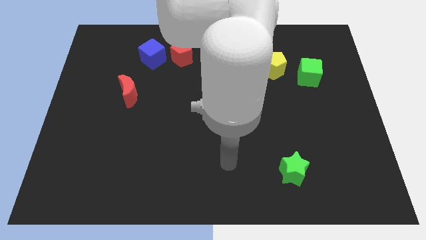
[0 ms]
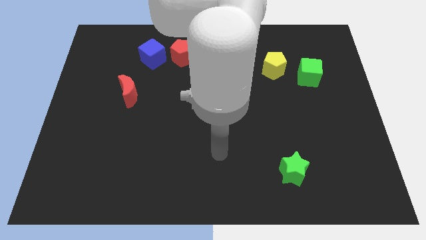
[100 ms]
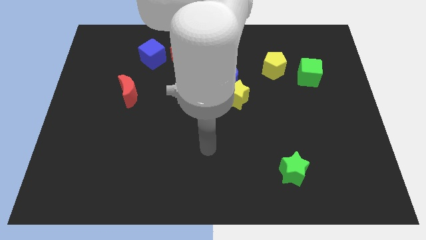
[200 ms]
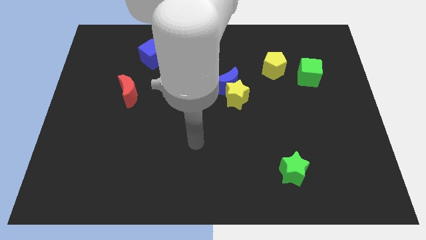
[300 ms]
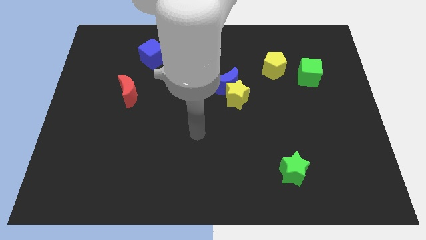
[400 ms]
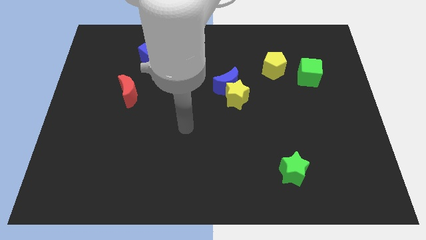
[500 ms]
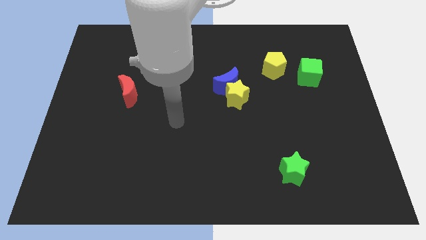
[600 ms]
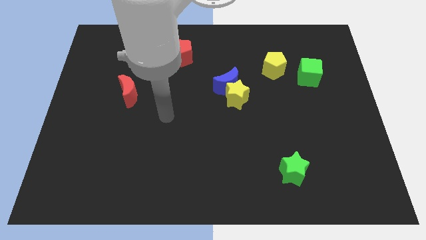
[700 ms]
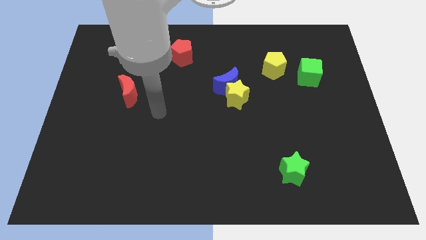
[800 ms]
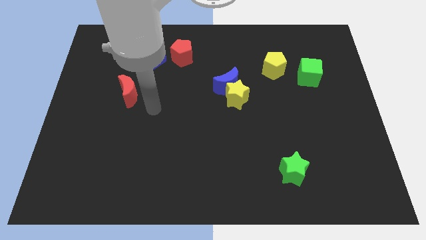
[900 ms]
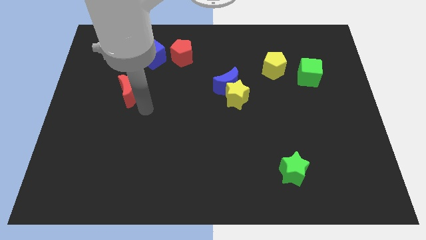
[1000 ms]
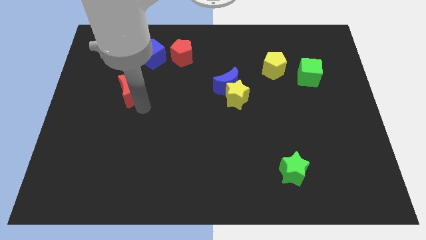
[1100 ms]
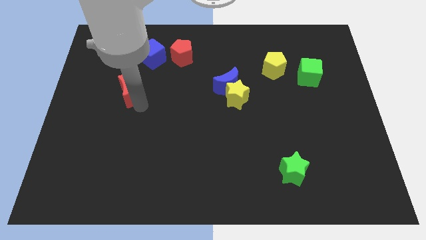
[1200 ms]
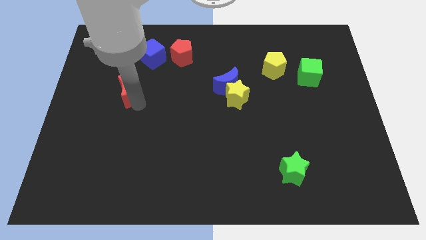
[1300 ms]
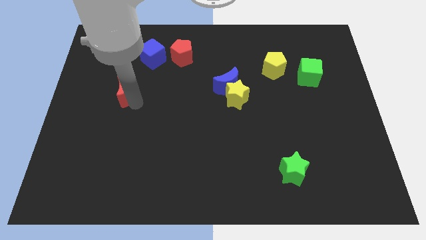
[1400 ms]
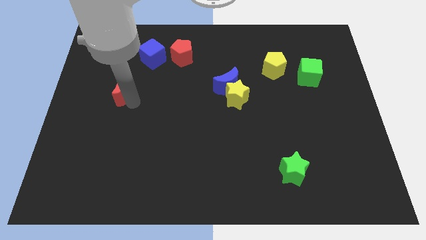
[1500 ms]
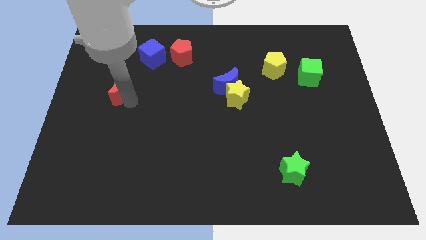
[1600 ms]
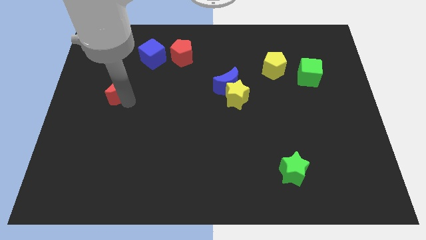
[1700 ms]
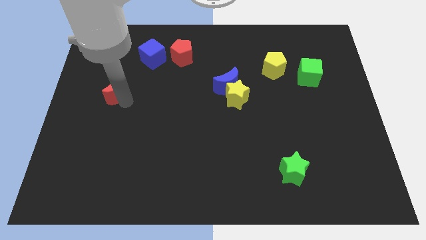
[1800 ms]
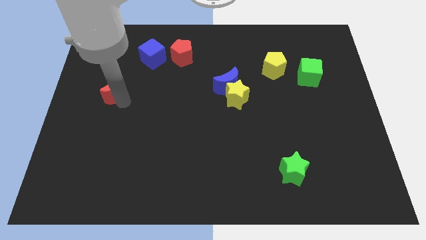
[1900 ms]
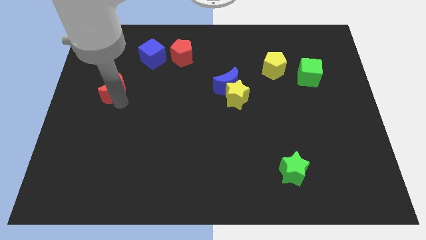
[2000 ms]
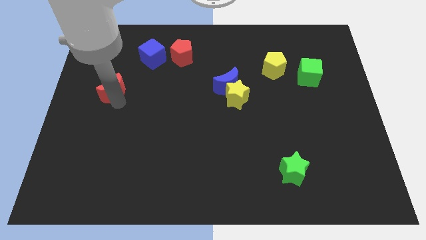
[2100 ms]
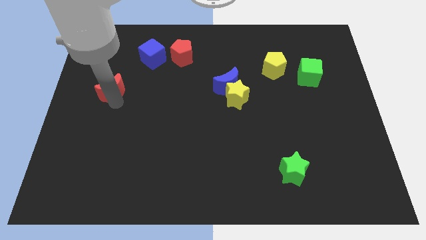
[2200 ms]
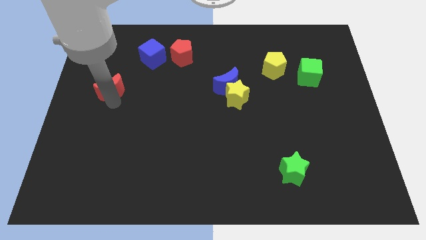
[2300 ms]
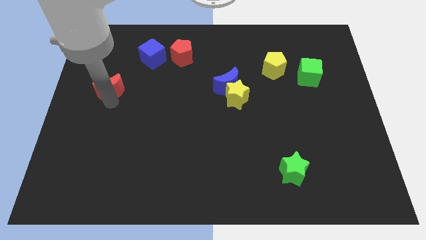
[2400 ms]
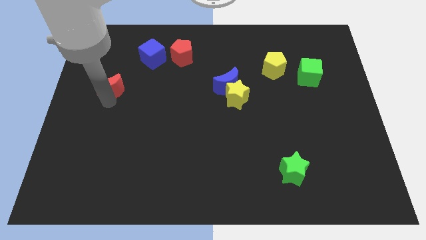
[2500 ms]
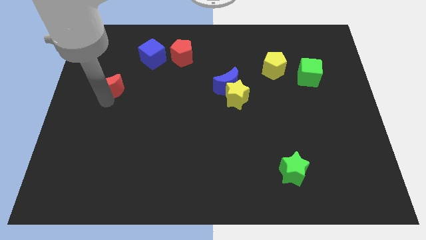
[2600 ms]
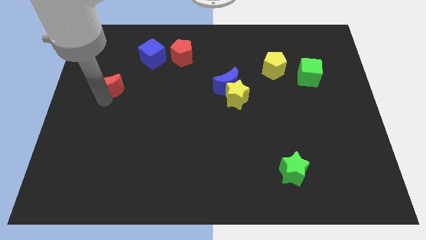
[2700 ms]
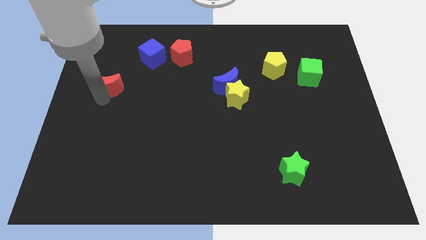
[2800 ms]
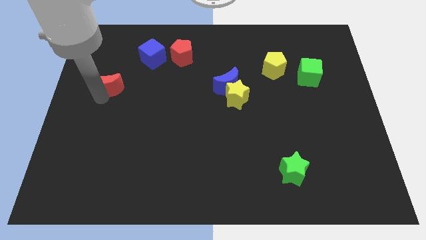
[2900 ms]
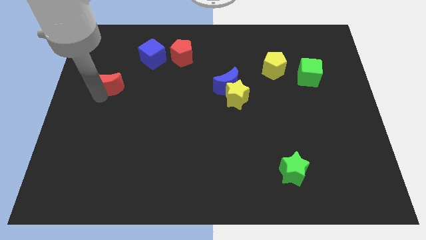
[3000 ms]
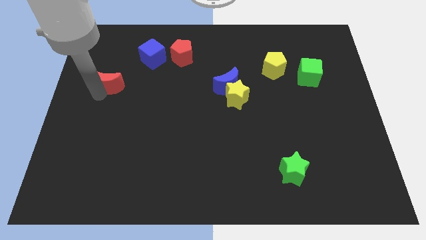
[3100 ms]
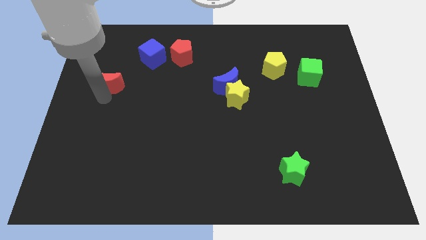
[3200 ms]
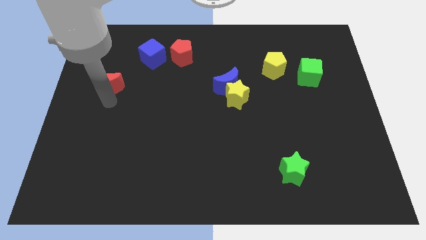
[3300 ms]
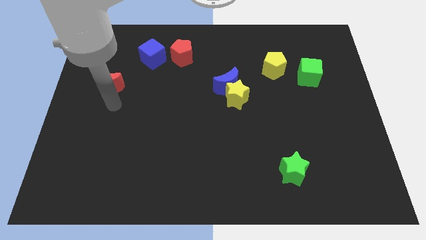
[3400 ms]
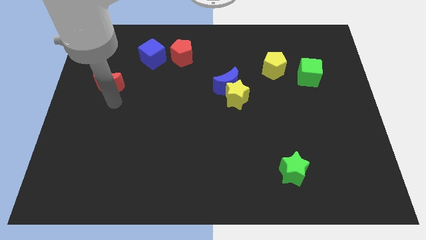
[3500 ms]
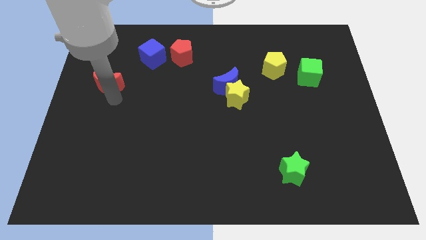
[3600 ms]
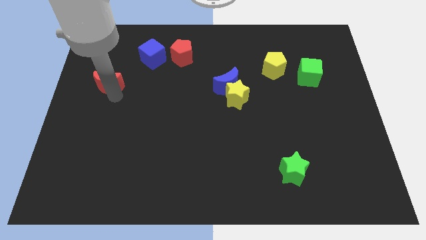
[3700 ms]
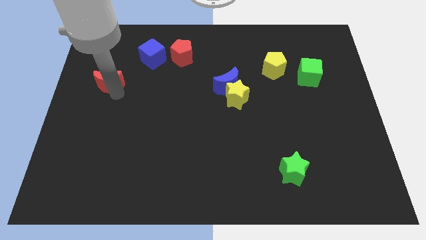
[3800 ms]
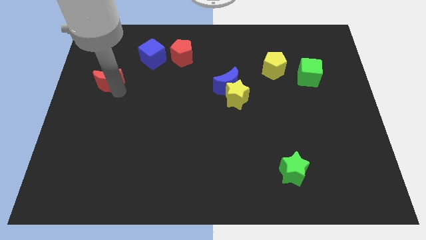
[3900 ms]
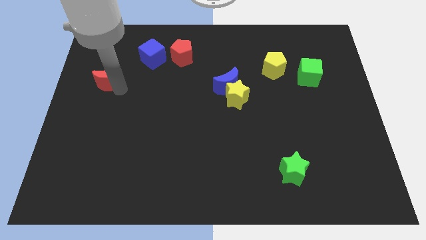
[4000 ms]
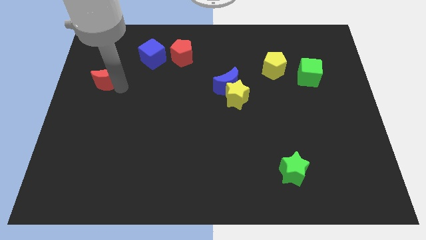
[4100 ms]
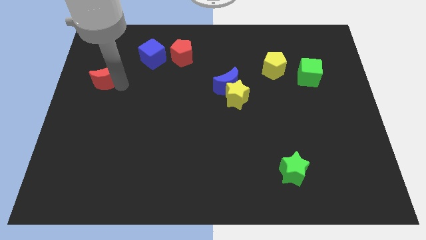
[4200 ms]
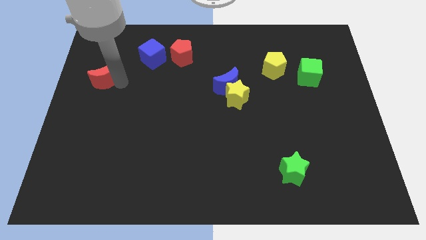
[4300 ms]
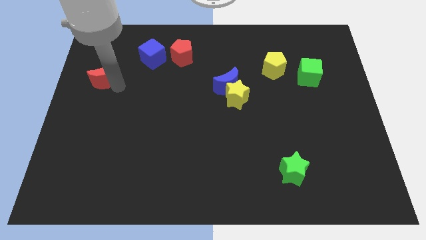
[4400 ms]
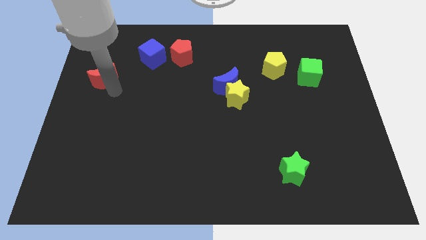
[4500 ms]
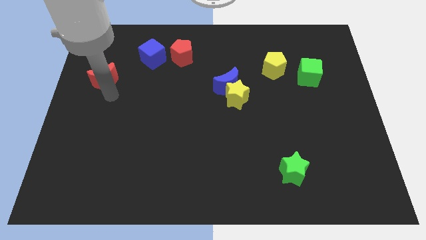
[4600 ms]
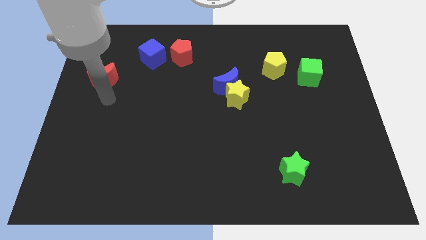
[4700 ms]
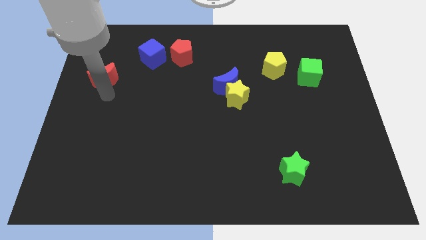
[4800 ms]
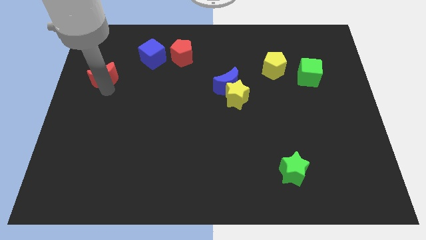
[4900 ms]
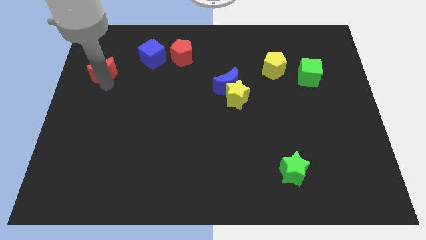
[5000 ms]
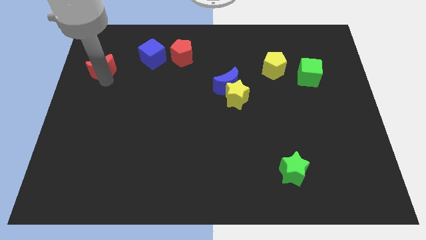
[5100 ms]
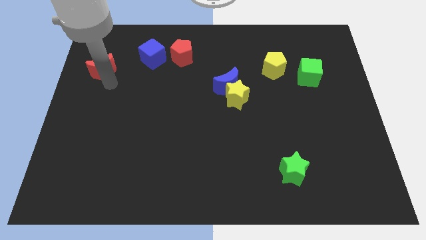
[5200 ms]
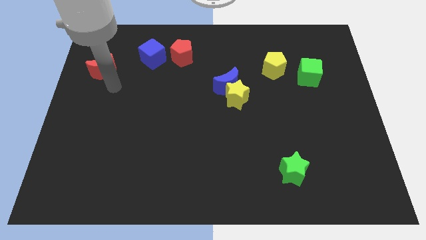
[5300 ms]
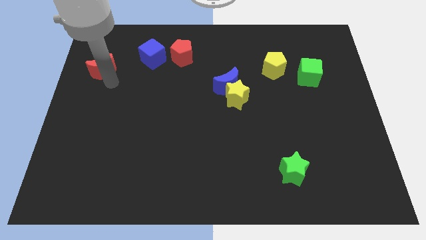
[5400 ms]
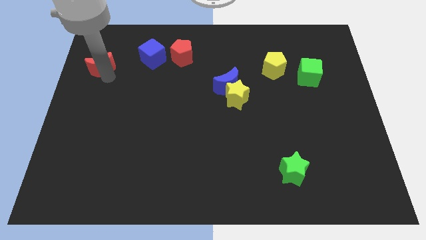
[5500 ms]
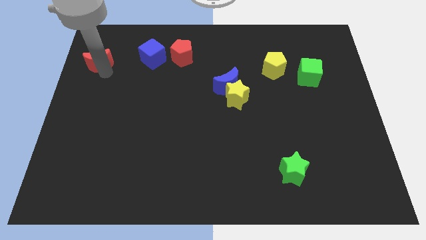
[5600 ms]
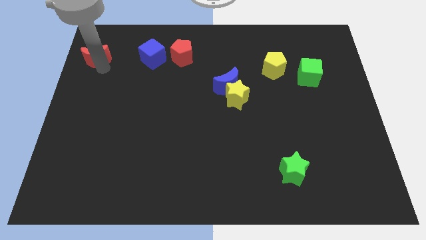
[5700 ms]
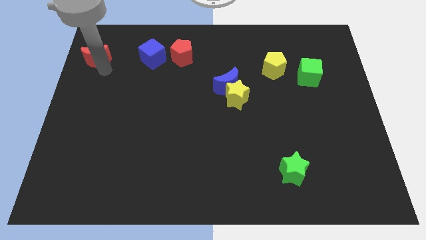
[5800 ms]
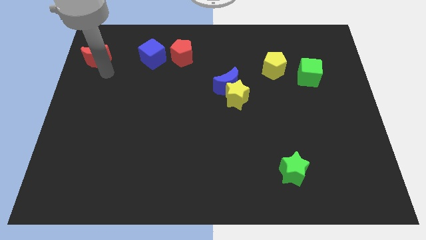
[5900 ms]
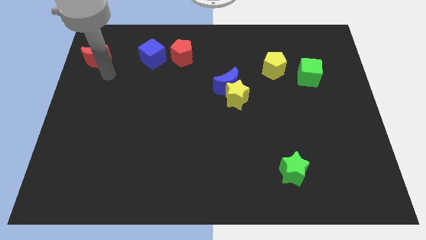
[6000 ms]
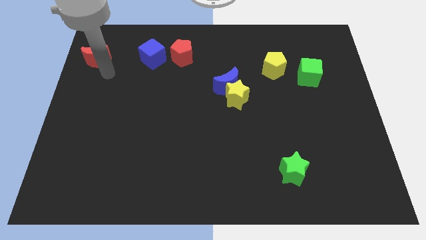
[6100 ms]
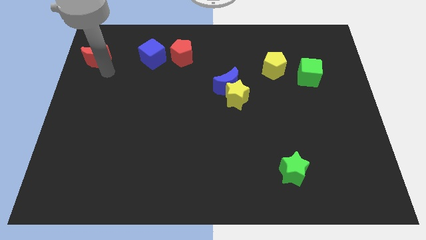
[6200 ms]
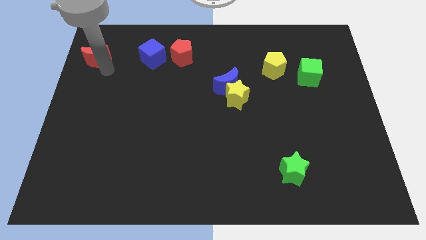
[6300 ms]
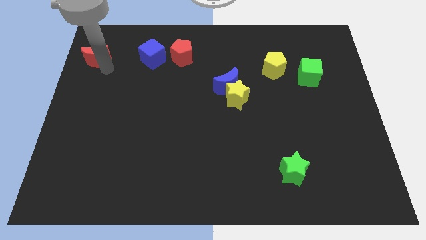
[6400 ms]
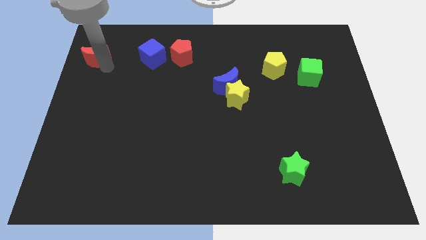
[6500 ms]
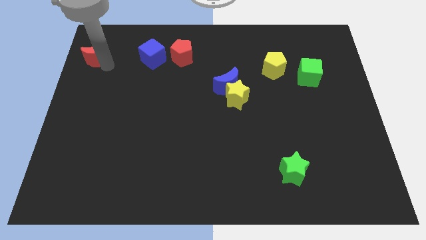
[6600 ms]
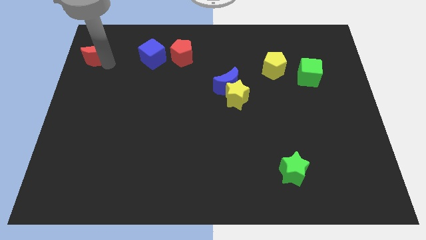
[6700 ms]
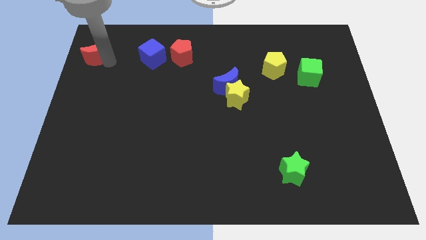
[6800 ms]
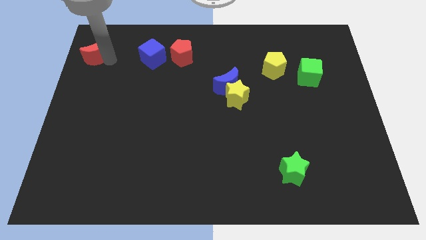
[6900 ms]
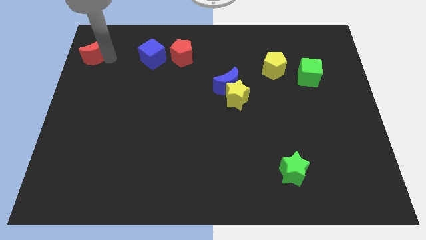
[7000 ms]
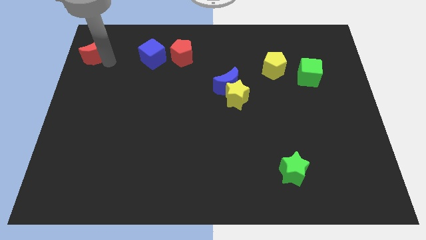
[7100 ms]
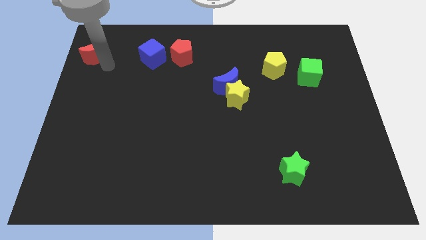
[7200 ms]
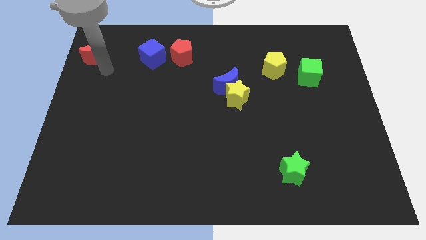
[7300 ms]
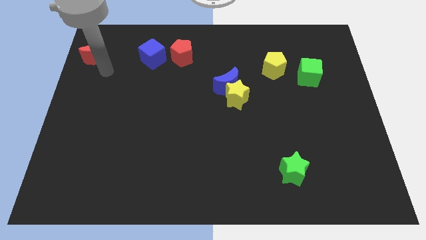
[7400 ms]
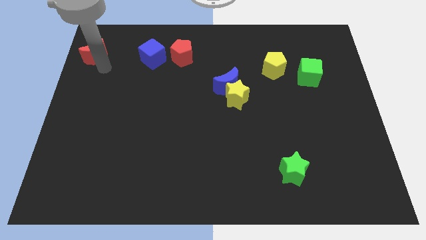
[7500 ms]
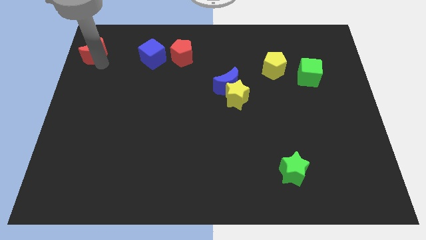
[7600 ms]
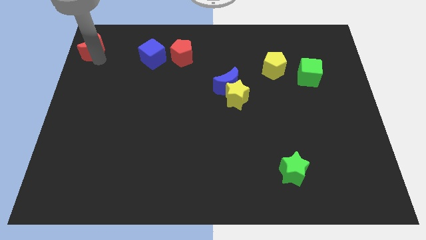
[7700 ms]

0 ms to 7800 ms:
push the red moon to the top left

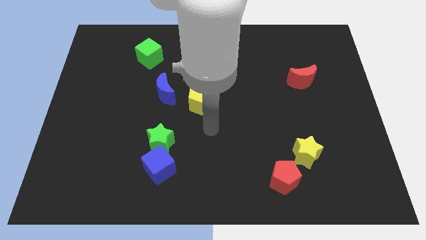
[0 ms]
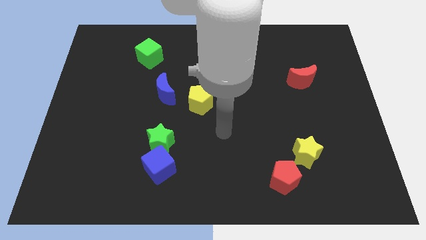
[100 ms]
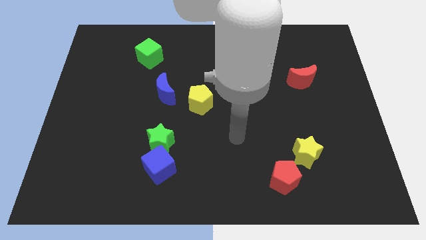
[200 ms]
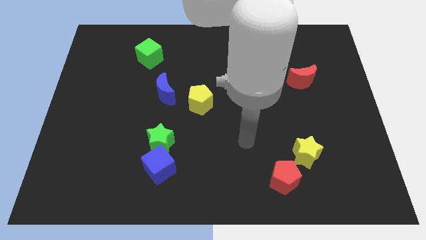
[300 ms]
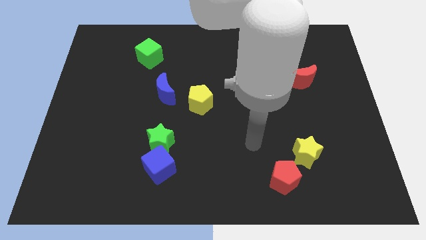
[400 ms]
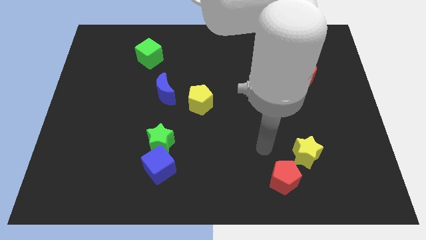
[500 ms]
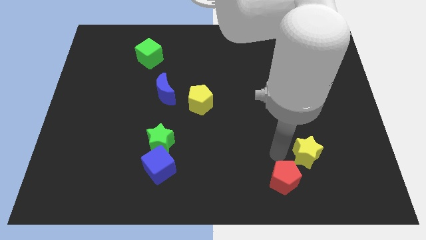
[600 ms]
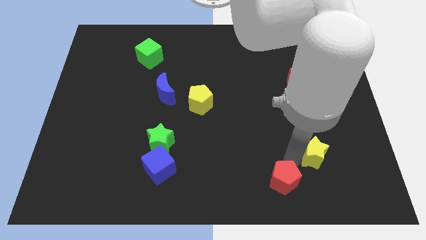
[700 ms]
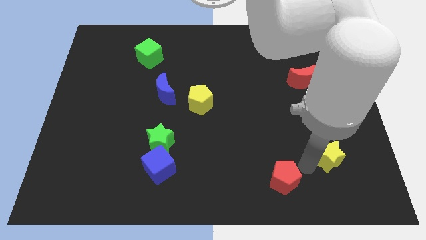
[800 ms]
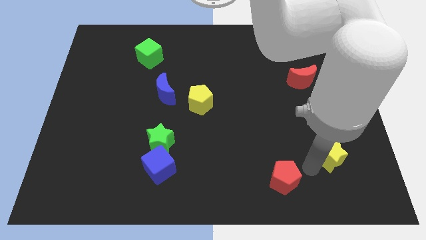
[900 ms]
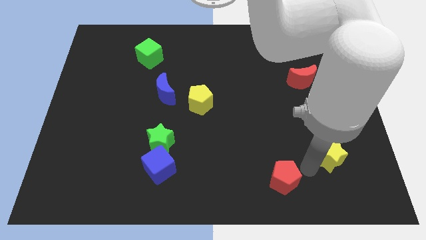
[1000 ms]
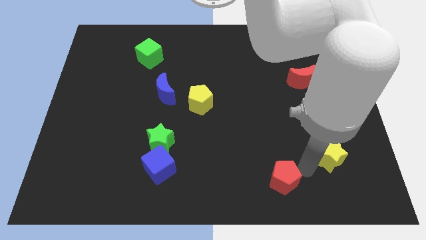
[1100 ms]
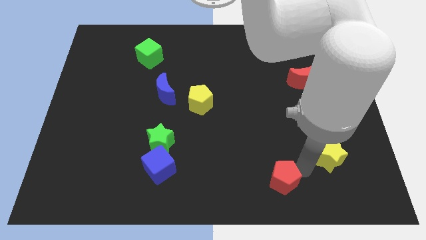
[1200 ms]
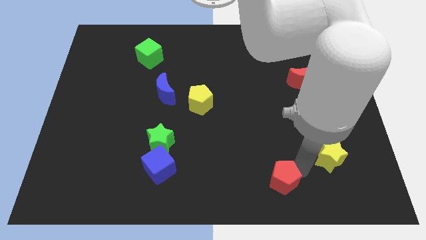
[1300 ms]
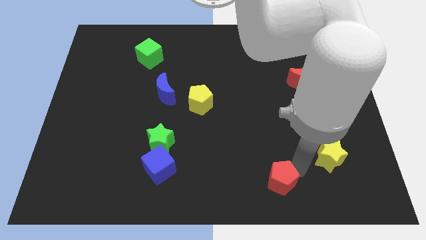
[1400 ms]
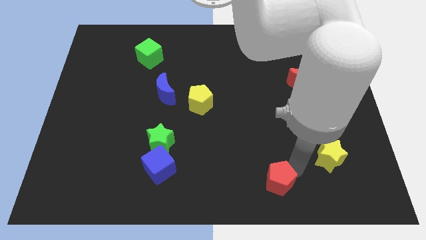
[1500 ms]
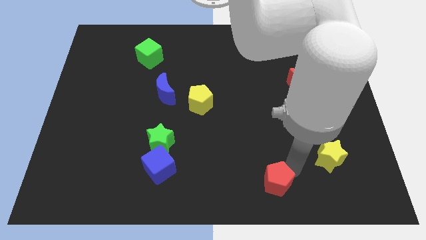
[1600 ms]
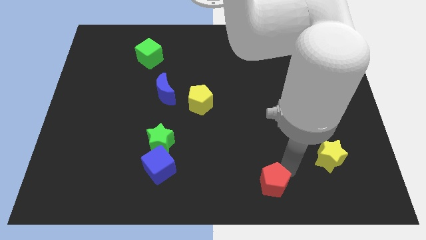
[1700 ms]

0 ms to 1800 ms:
move the red pentagon to the bottom
